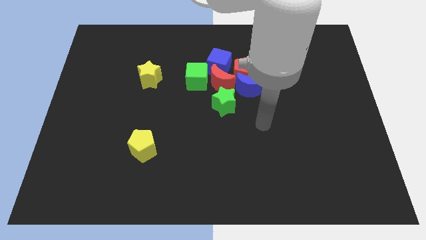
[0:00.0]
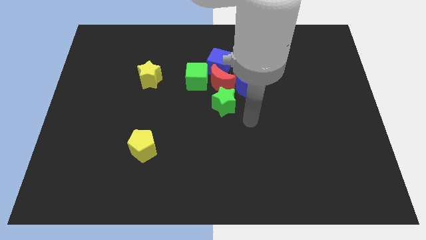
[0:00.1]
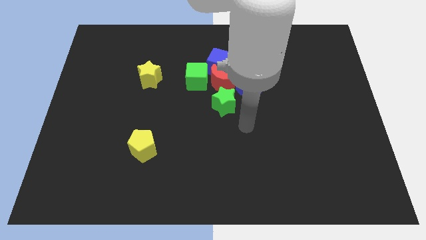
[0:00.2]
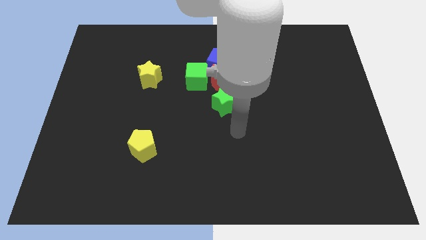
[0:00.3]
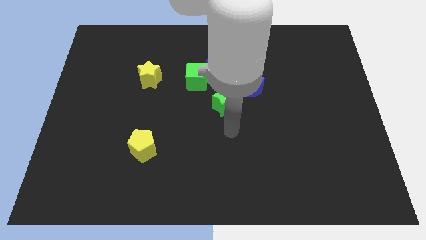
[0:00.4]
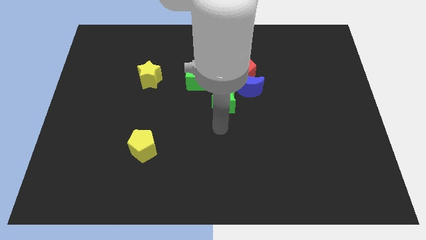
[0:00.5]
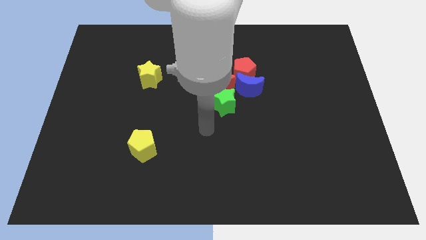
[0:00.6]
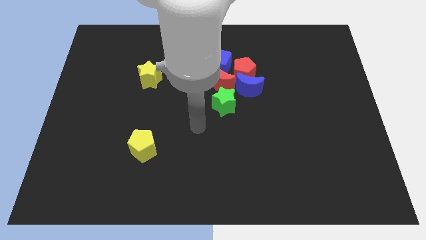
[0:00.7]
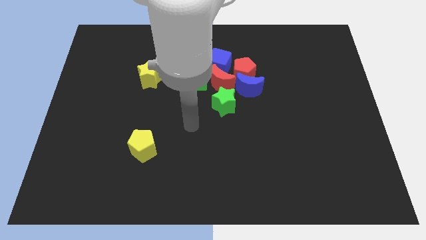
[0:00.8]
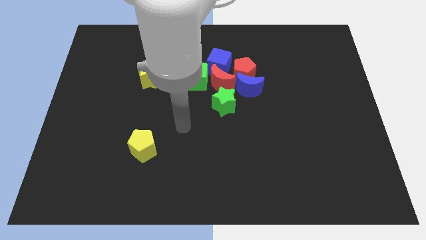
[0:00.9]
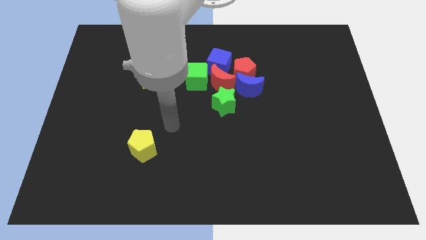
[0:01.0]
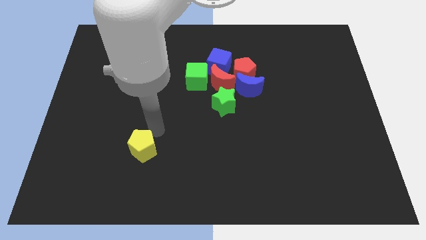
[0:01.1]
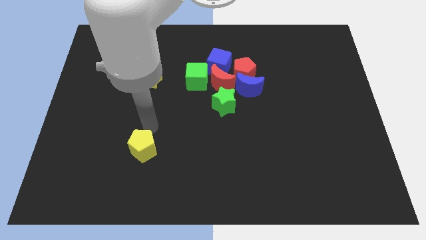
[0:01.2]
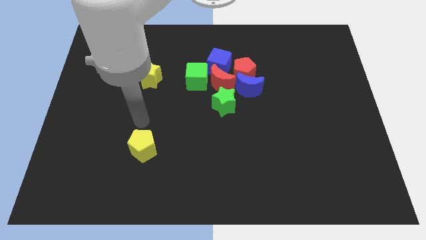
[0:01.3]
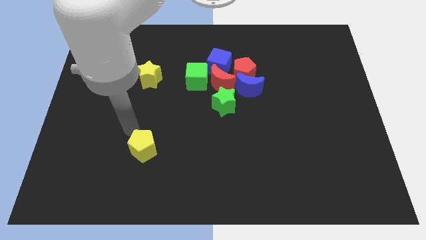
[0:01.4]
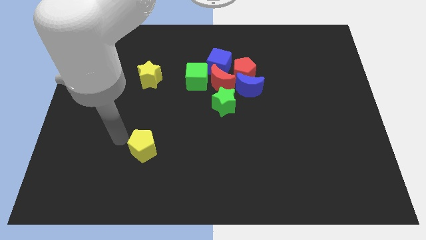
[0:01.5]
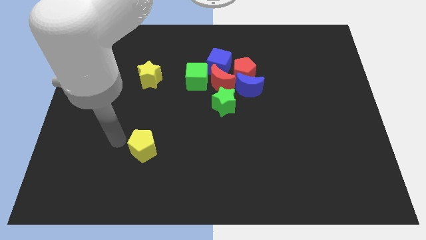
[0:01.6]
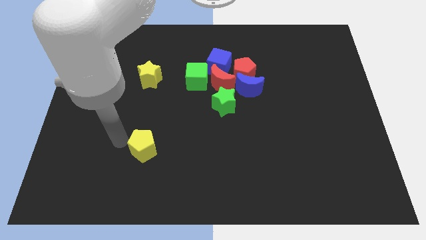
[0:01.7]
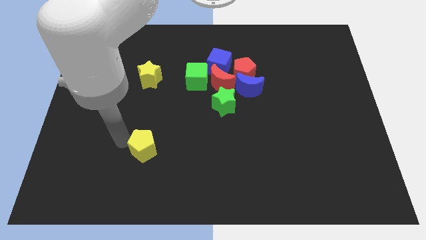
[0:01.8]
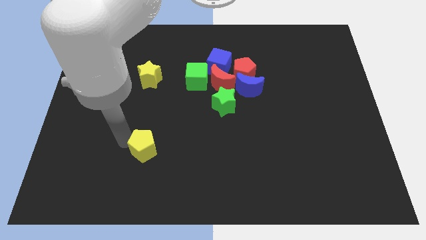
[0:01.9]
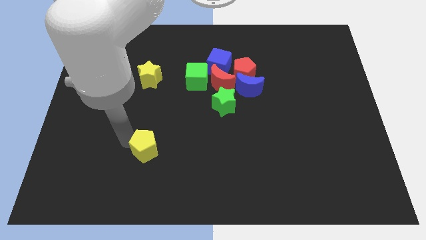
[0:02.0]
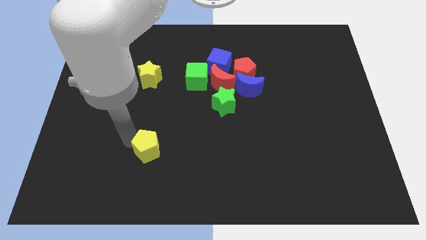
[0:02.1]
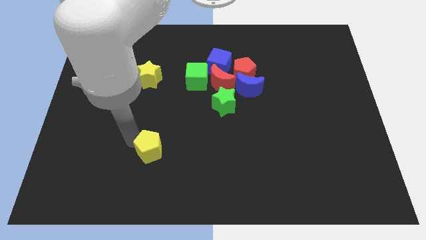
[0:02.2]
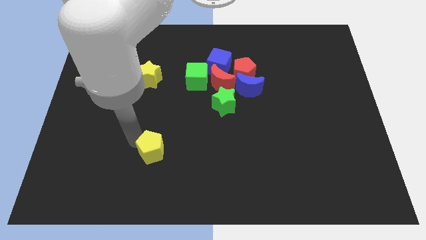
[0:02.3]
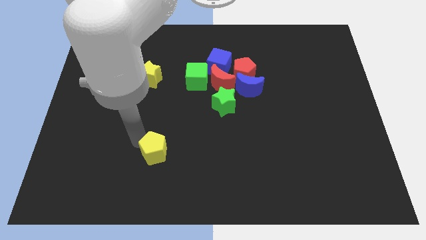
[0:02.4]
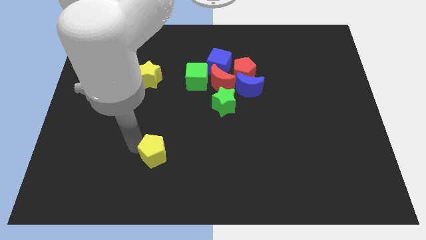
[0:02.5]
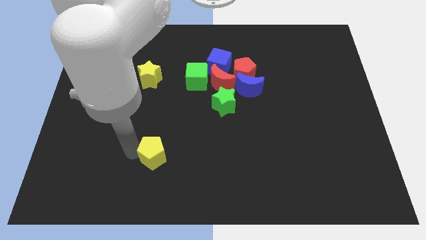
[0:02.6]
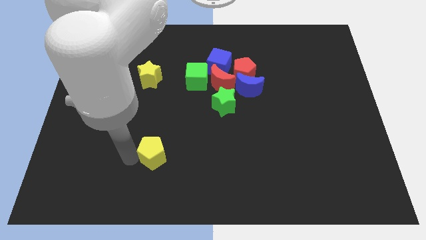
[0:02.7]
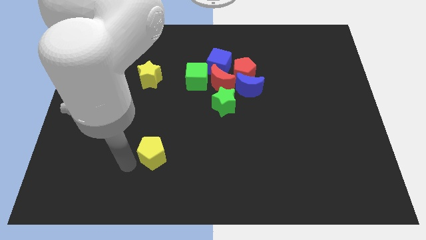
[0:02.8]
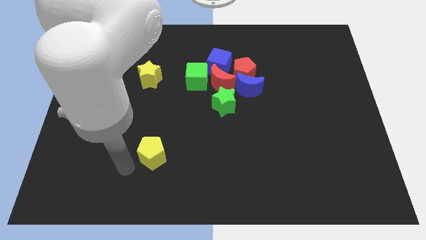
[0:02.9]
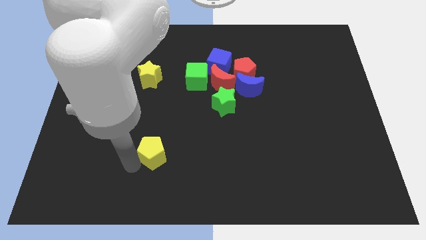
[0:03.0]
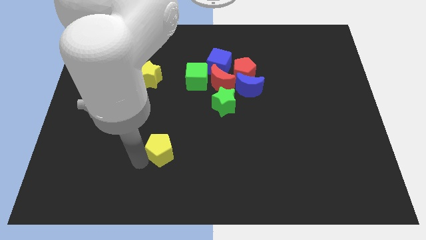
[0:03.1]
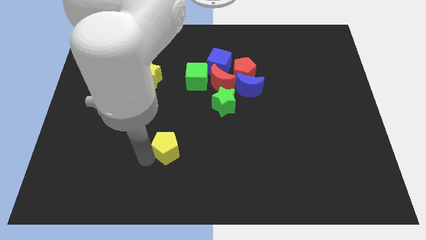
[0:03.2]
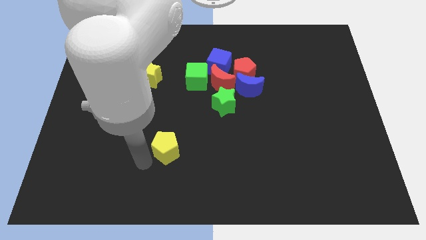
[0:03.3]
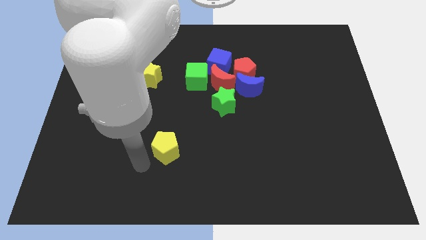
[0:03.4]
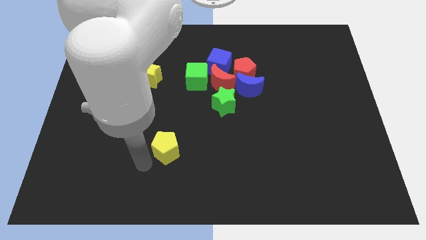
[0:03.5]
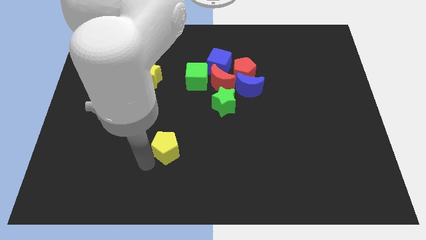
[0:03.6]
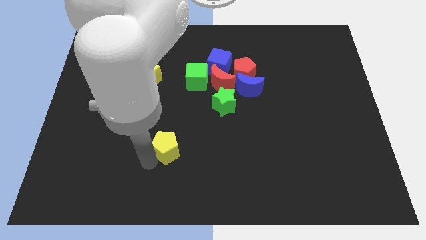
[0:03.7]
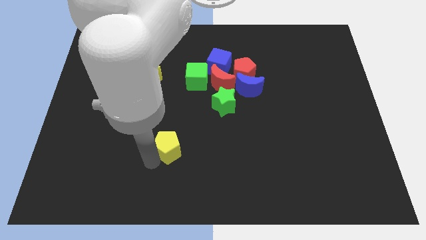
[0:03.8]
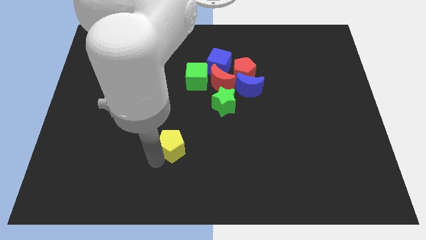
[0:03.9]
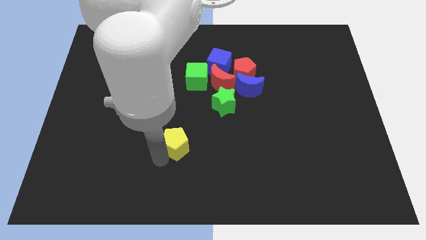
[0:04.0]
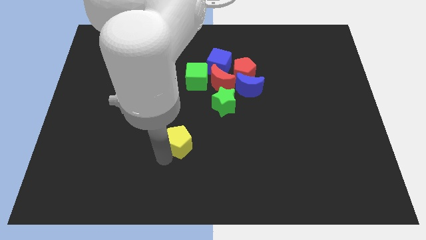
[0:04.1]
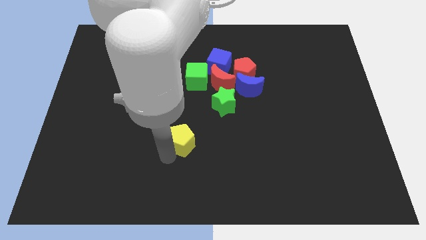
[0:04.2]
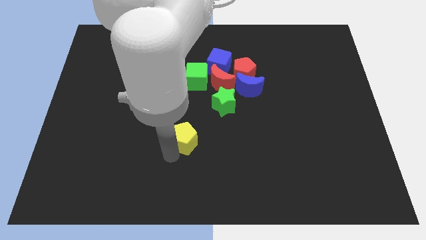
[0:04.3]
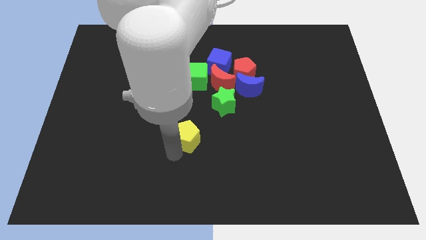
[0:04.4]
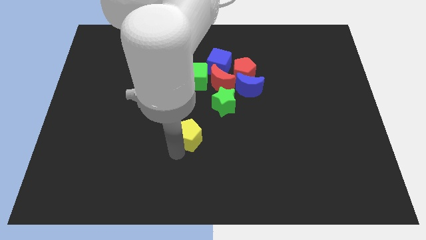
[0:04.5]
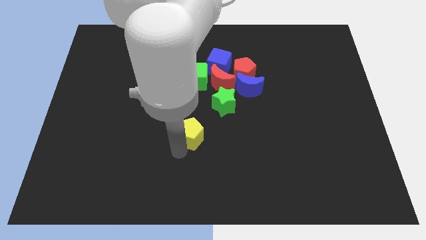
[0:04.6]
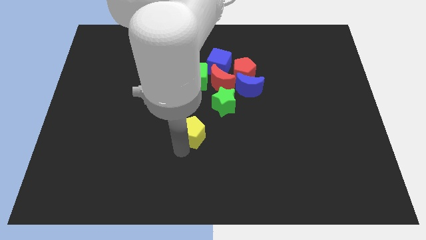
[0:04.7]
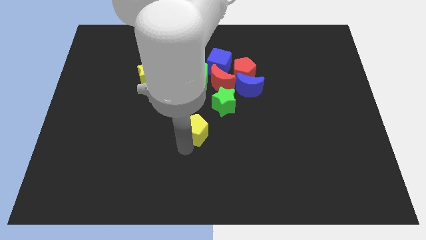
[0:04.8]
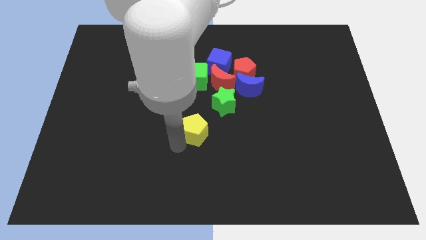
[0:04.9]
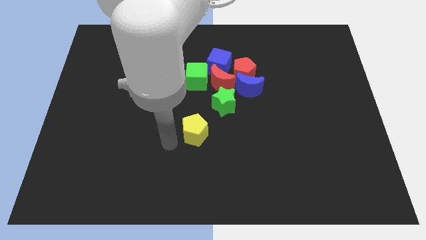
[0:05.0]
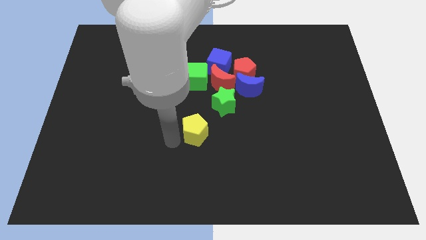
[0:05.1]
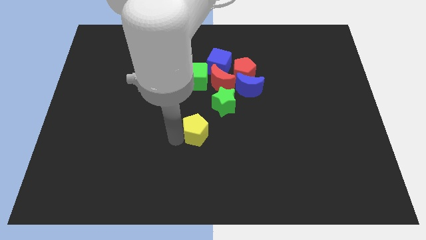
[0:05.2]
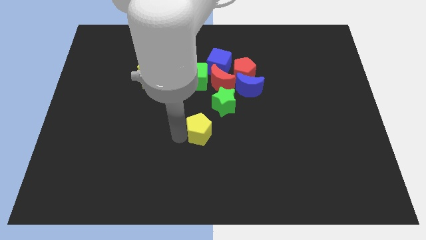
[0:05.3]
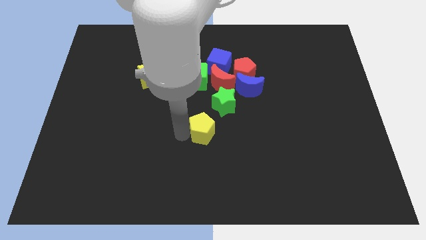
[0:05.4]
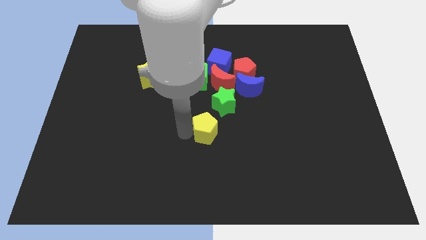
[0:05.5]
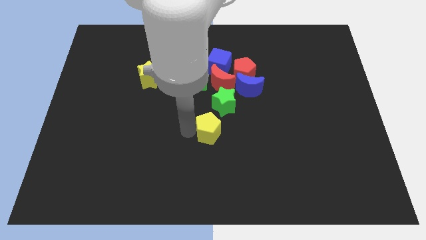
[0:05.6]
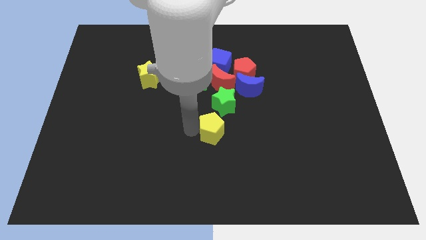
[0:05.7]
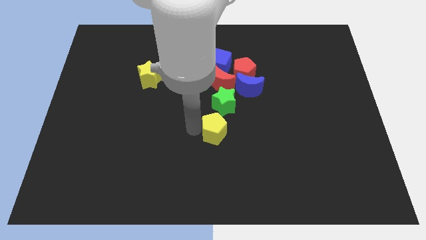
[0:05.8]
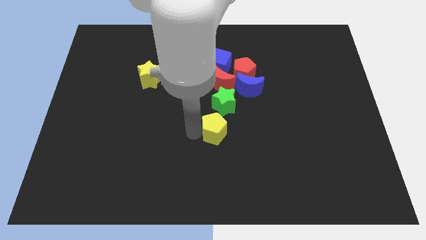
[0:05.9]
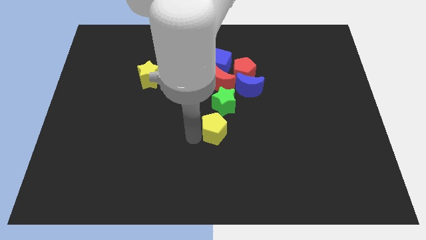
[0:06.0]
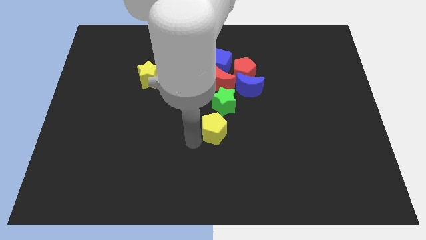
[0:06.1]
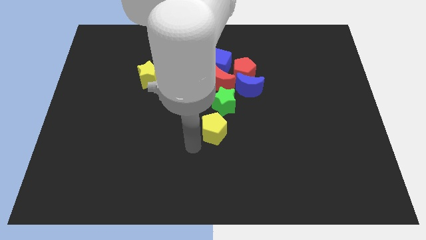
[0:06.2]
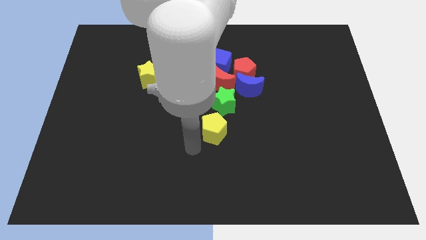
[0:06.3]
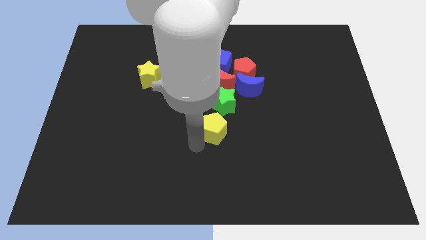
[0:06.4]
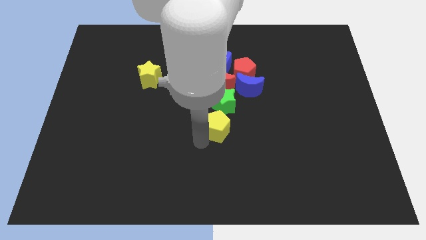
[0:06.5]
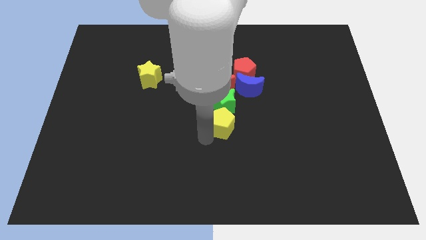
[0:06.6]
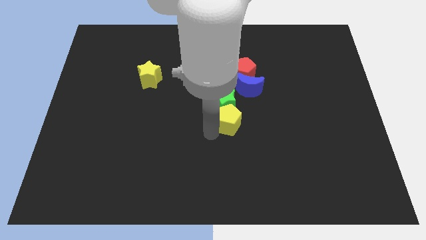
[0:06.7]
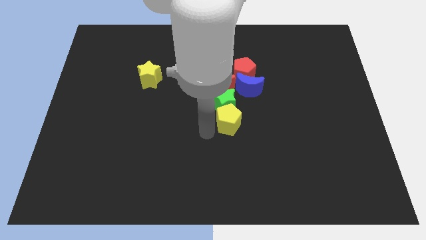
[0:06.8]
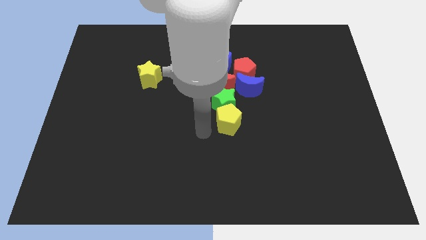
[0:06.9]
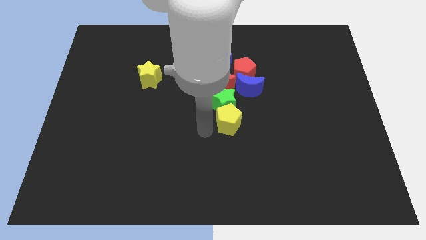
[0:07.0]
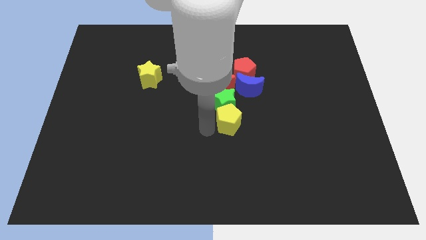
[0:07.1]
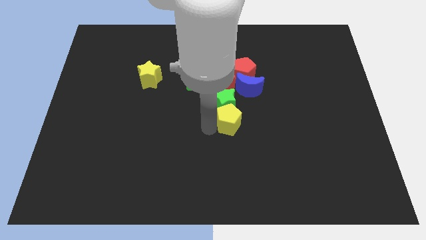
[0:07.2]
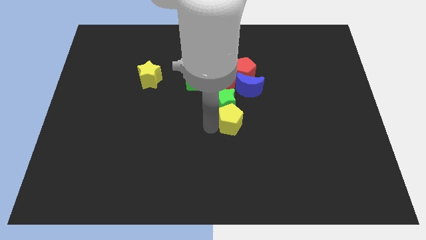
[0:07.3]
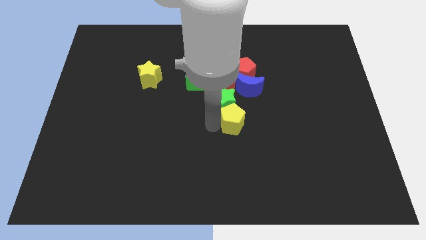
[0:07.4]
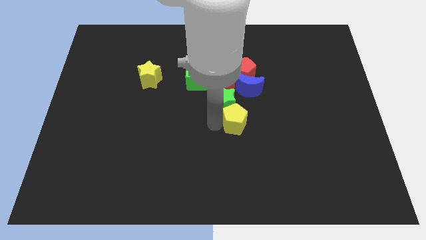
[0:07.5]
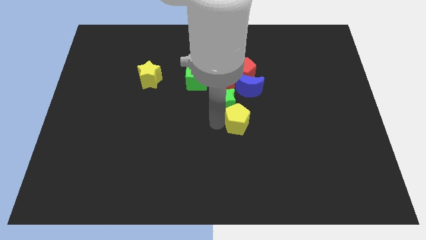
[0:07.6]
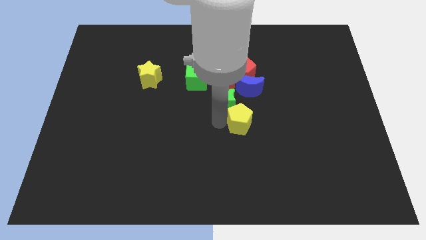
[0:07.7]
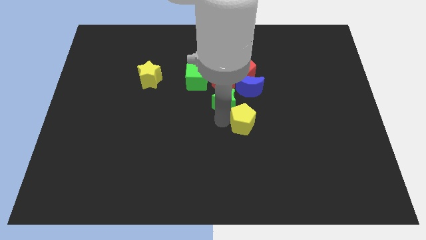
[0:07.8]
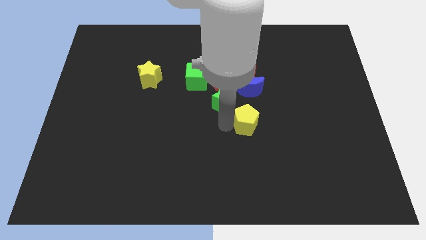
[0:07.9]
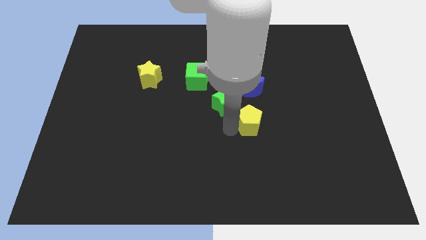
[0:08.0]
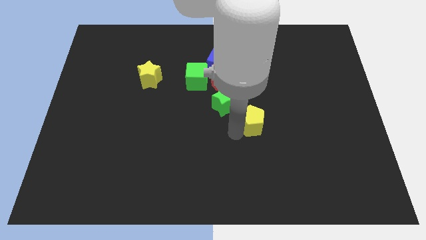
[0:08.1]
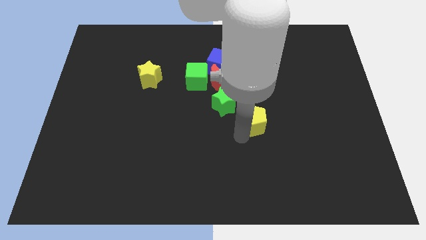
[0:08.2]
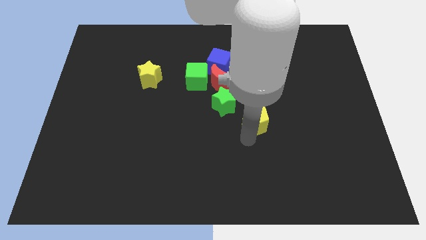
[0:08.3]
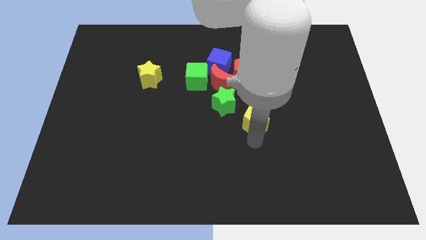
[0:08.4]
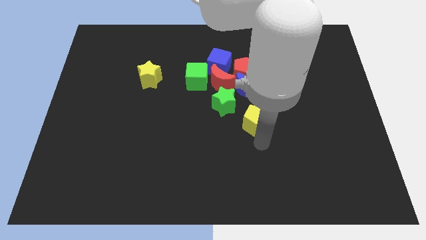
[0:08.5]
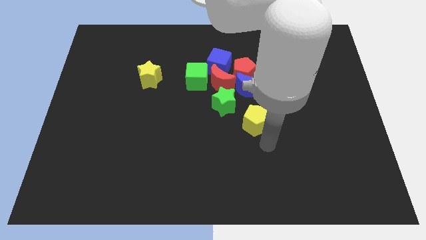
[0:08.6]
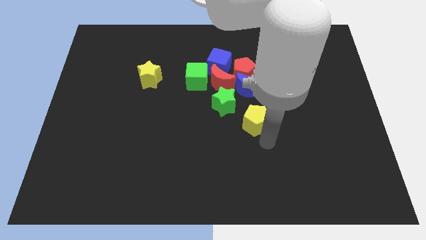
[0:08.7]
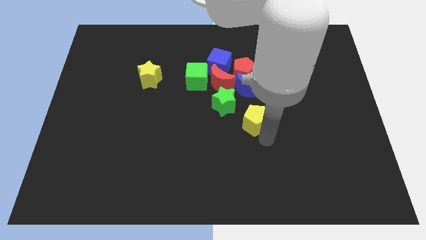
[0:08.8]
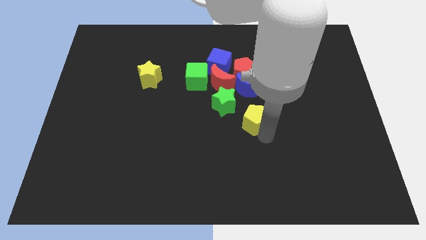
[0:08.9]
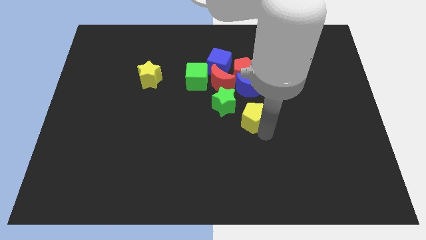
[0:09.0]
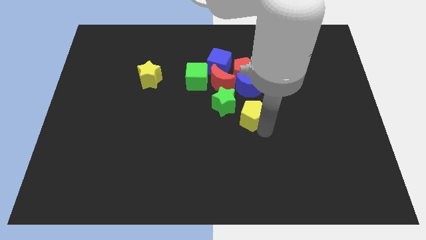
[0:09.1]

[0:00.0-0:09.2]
put the yellow pentagon to the bottom right of the red moon
